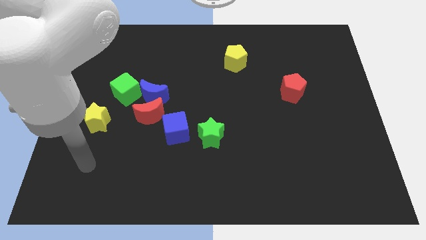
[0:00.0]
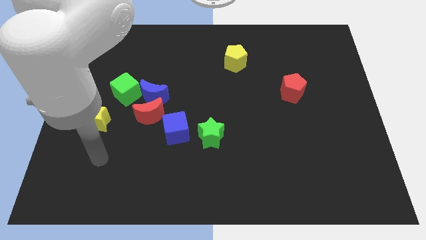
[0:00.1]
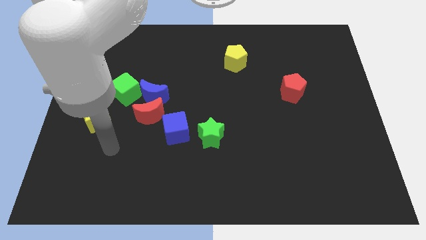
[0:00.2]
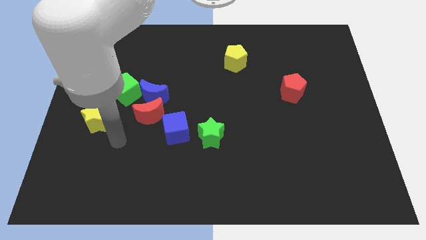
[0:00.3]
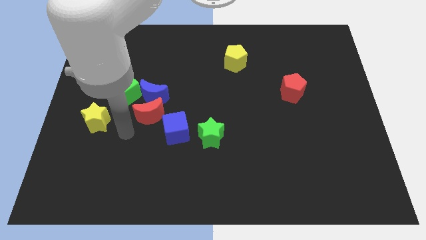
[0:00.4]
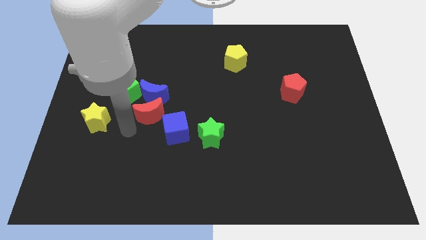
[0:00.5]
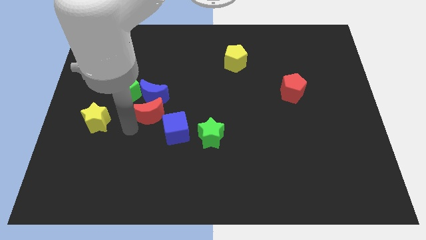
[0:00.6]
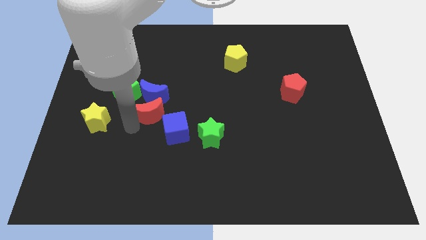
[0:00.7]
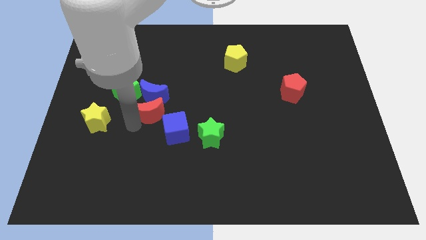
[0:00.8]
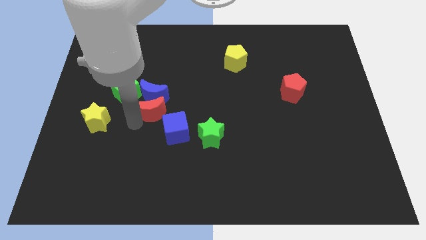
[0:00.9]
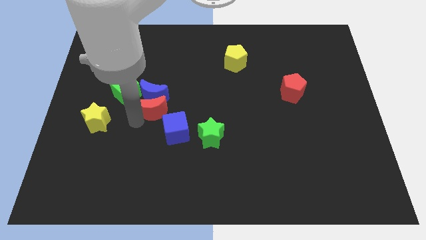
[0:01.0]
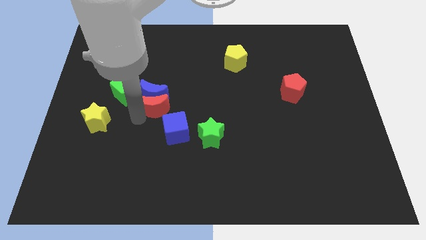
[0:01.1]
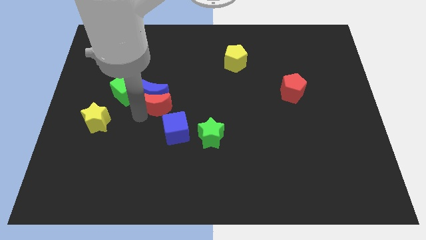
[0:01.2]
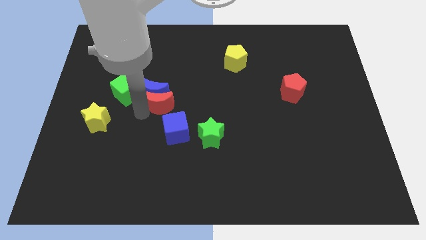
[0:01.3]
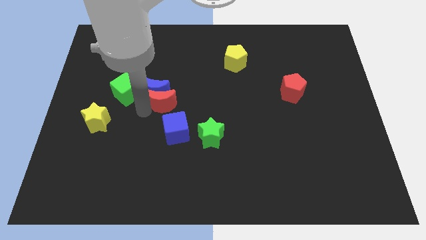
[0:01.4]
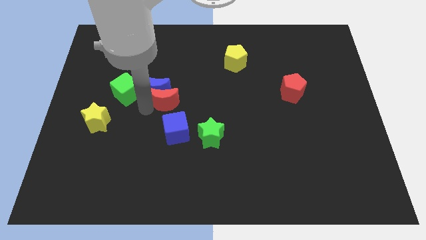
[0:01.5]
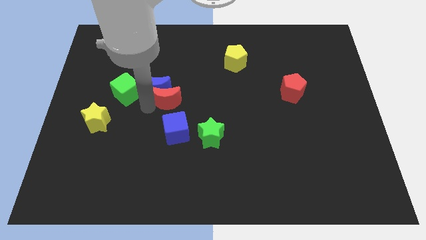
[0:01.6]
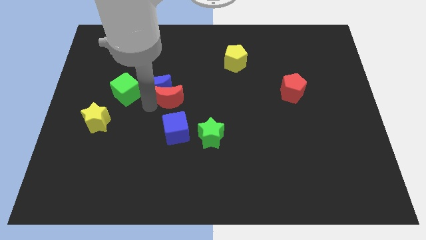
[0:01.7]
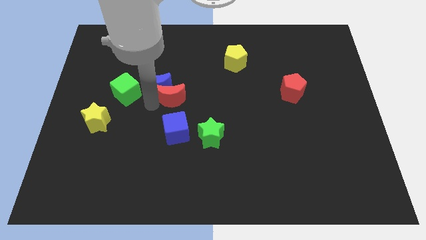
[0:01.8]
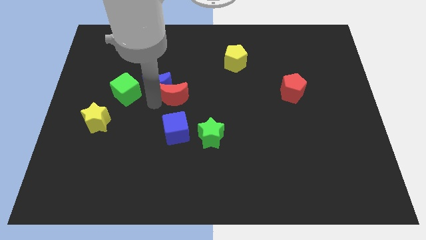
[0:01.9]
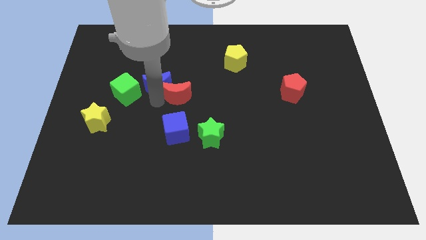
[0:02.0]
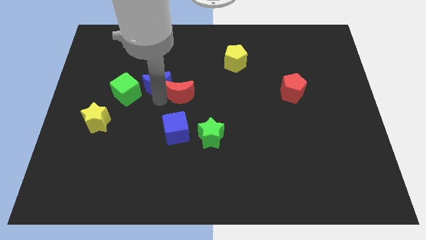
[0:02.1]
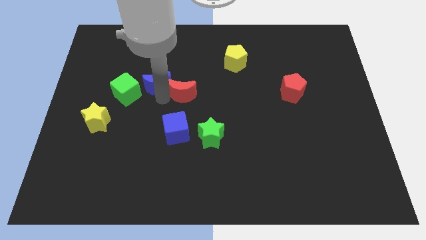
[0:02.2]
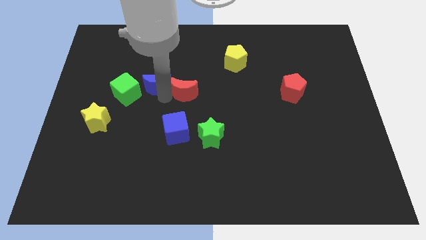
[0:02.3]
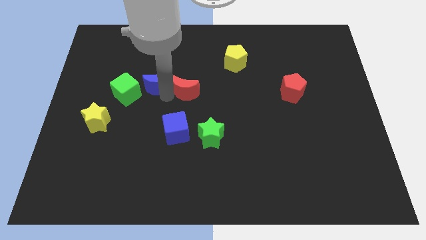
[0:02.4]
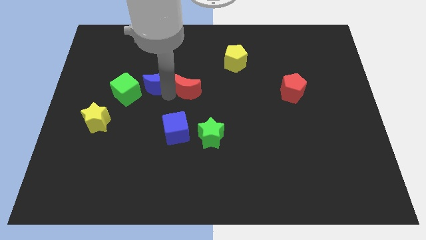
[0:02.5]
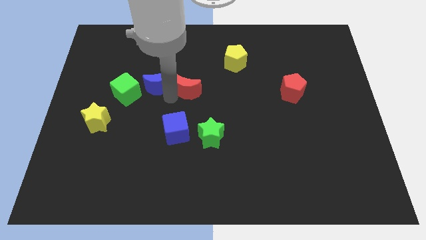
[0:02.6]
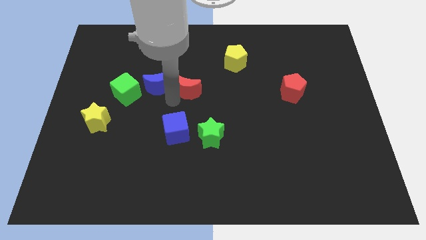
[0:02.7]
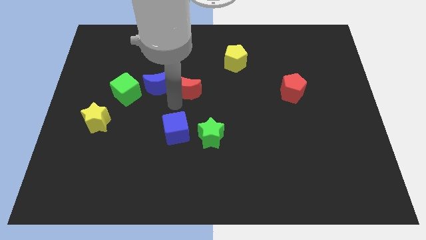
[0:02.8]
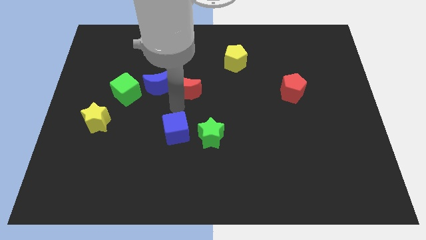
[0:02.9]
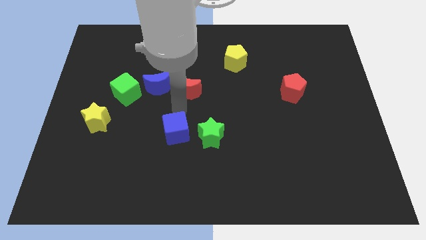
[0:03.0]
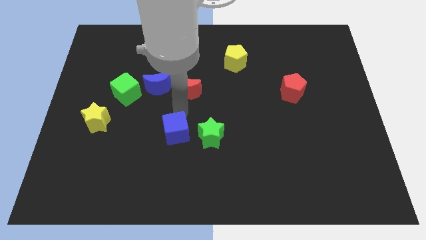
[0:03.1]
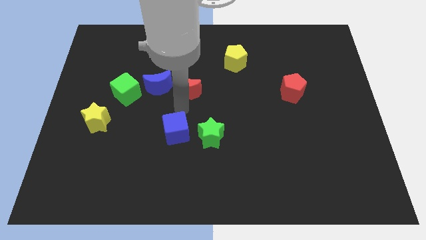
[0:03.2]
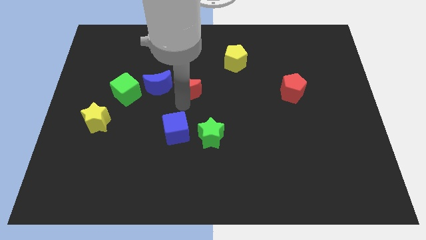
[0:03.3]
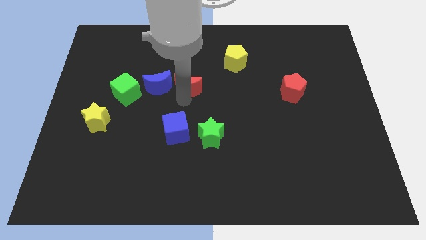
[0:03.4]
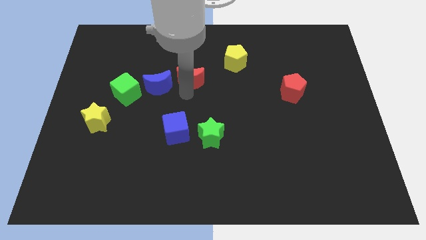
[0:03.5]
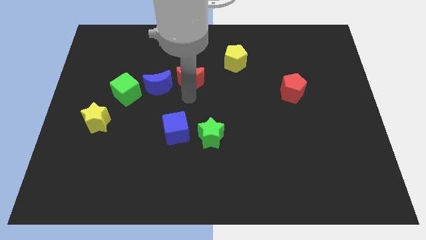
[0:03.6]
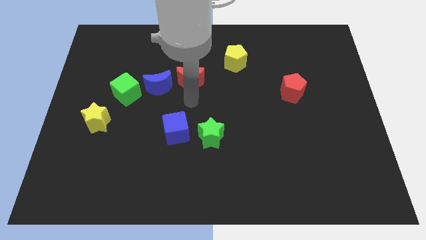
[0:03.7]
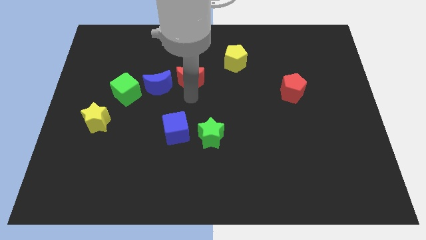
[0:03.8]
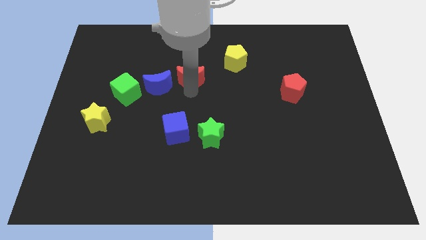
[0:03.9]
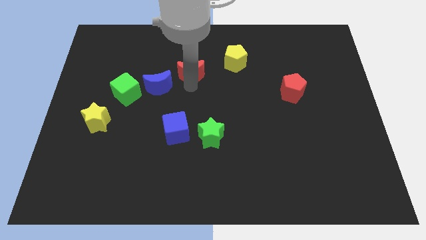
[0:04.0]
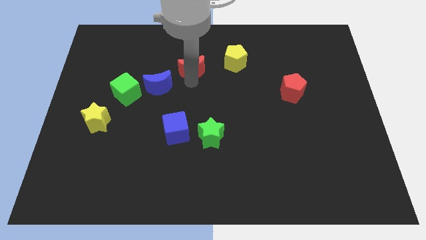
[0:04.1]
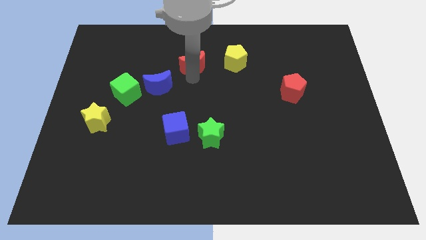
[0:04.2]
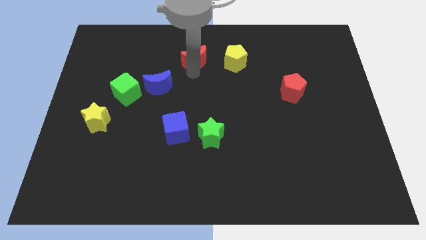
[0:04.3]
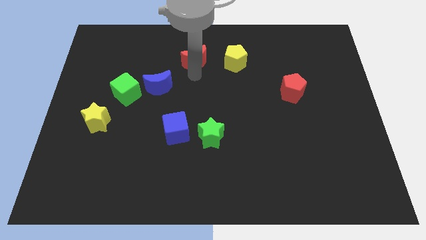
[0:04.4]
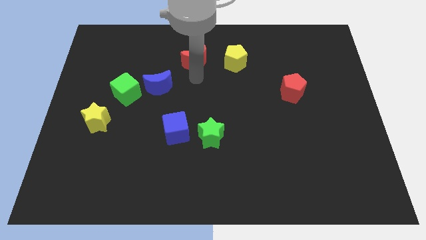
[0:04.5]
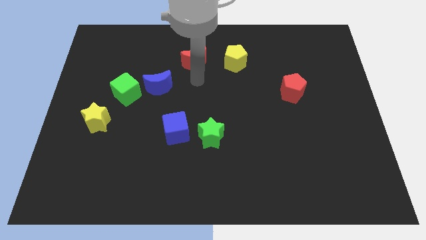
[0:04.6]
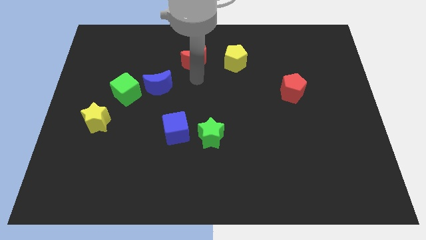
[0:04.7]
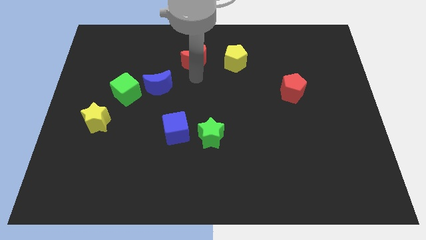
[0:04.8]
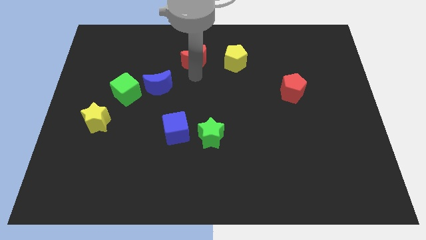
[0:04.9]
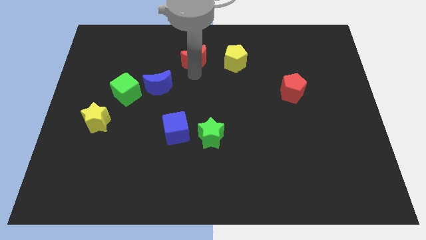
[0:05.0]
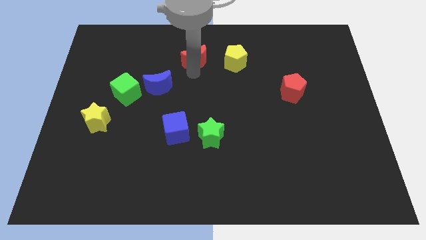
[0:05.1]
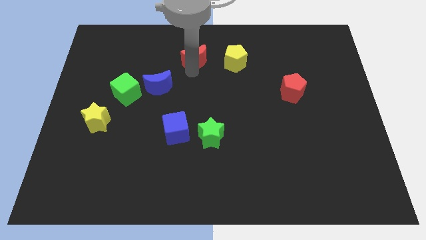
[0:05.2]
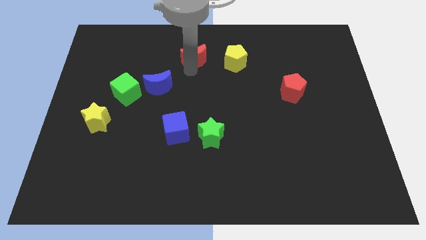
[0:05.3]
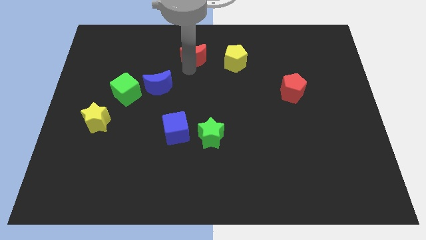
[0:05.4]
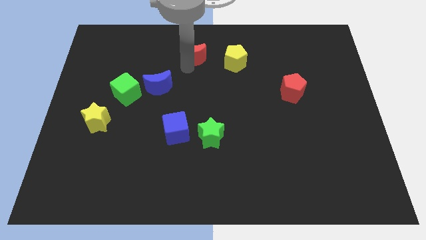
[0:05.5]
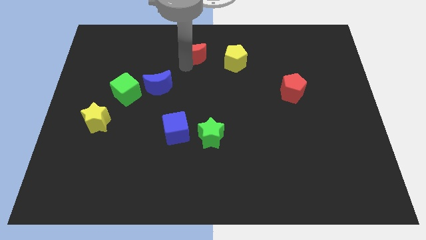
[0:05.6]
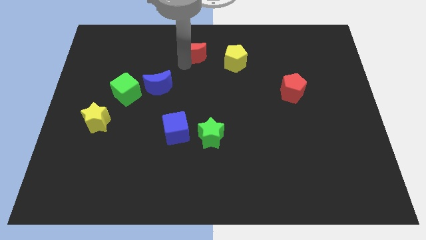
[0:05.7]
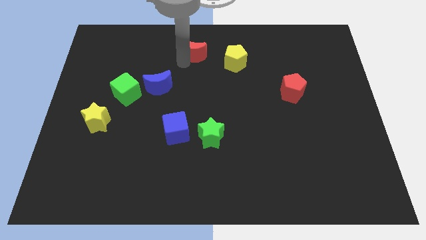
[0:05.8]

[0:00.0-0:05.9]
move the red moon to the towards your base

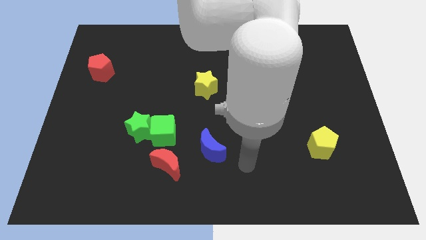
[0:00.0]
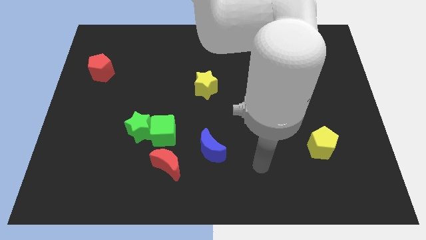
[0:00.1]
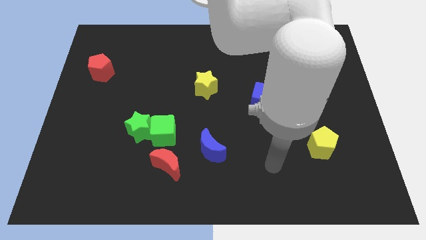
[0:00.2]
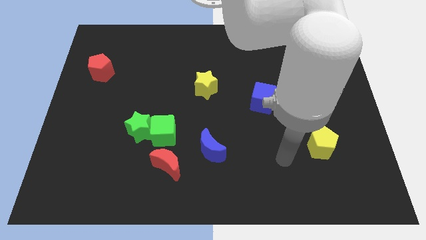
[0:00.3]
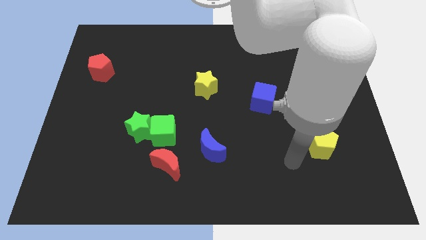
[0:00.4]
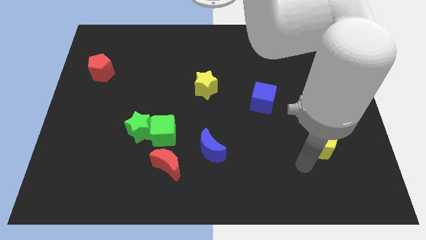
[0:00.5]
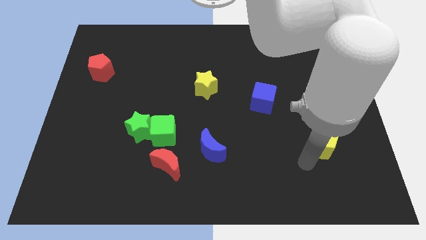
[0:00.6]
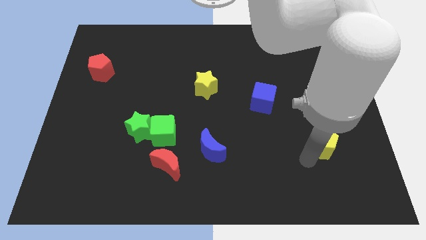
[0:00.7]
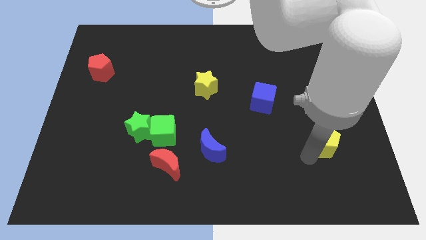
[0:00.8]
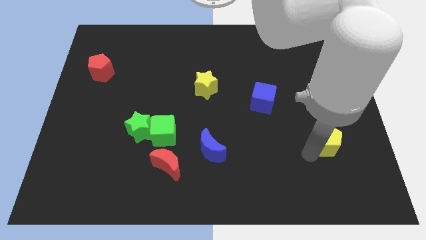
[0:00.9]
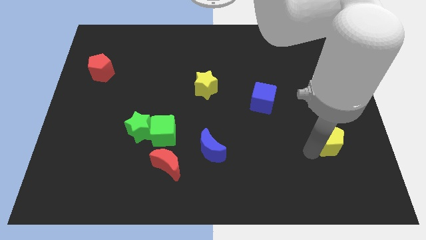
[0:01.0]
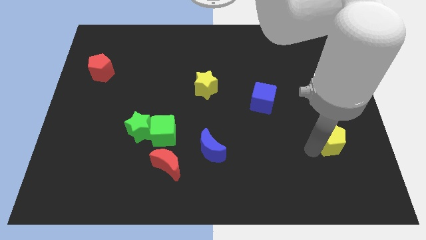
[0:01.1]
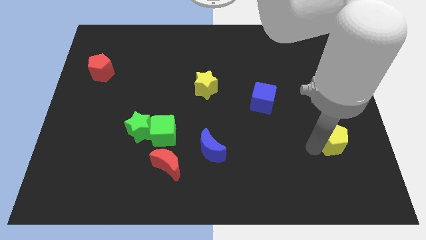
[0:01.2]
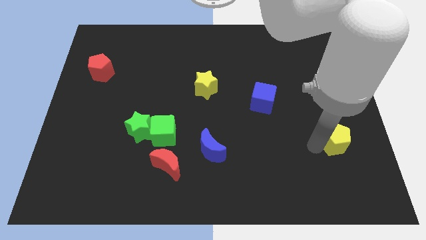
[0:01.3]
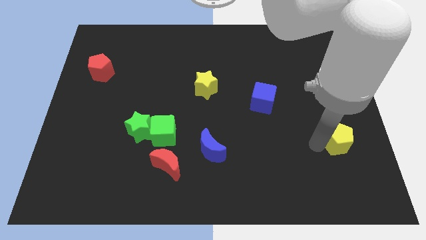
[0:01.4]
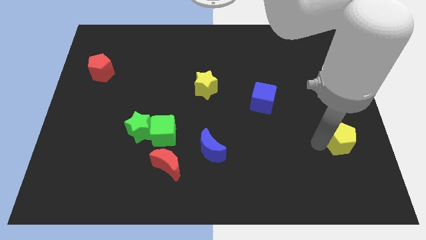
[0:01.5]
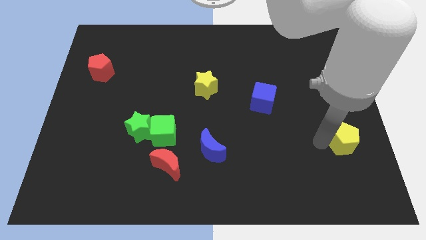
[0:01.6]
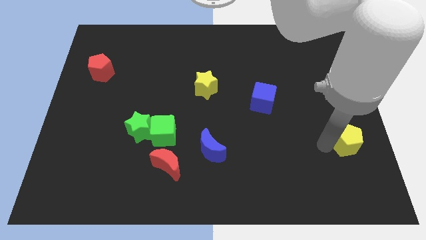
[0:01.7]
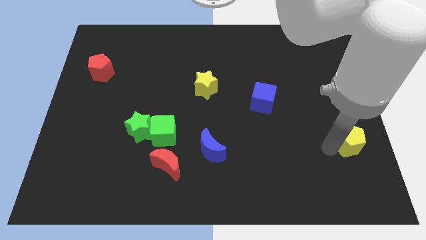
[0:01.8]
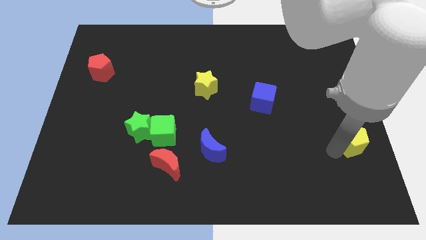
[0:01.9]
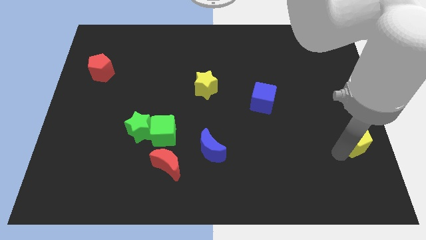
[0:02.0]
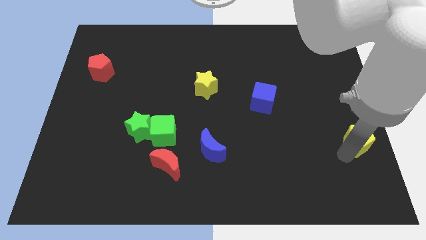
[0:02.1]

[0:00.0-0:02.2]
push the yellow pentagon to the center right
